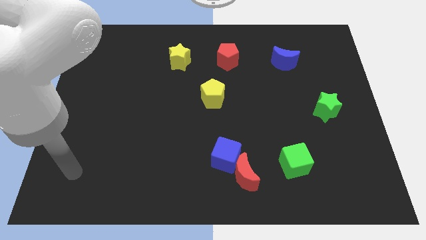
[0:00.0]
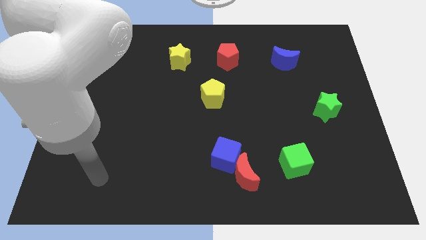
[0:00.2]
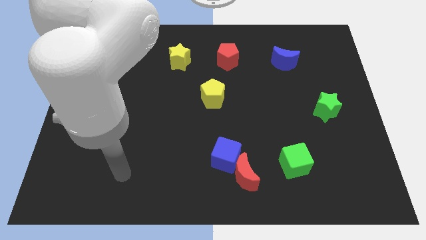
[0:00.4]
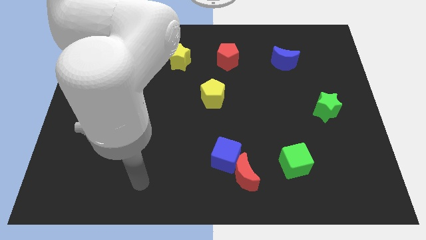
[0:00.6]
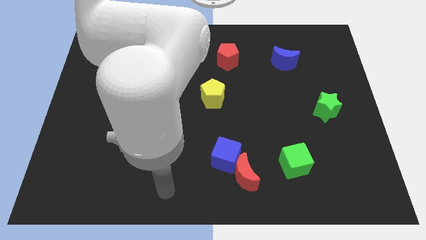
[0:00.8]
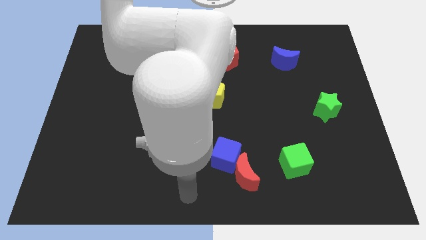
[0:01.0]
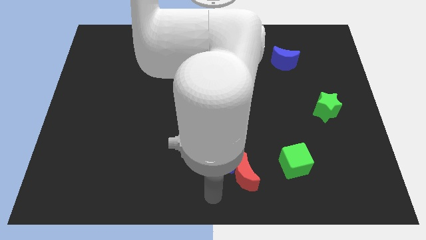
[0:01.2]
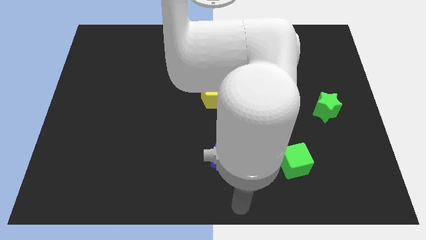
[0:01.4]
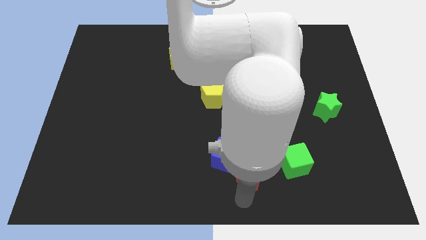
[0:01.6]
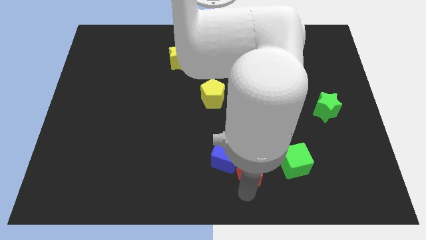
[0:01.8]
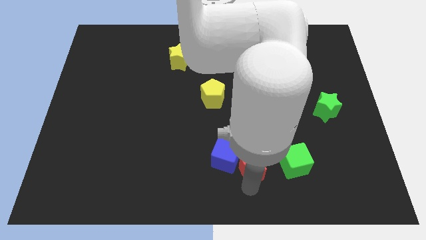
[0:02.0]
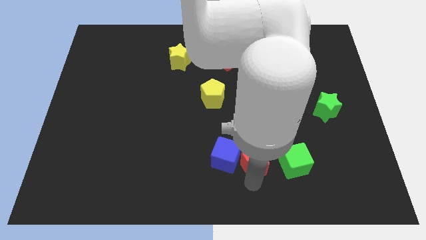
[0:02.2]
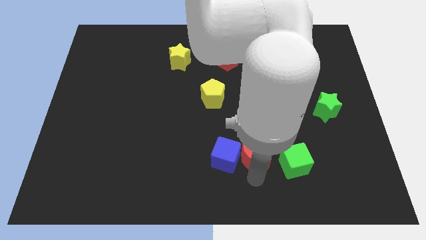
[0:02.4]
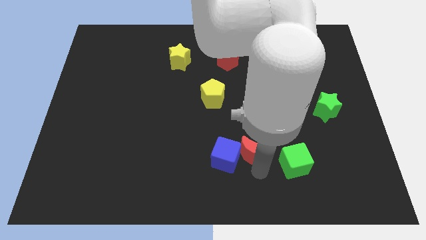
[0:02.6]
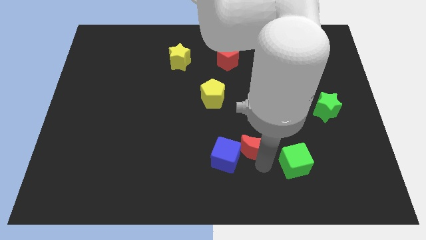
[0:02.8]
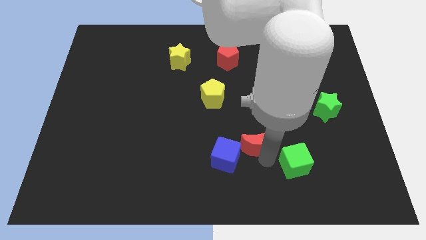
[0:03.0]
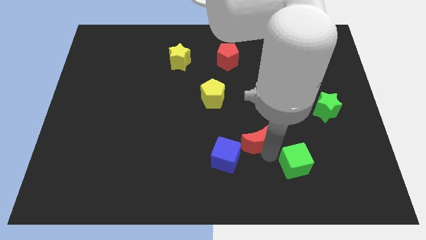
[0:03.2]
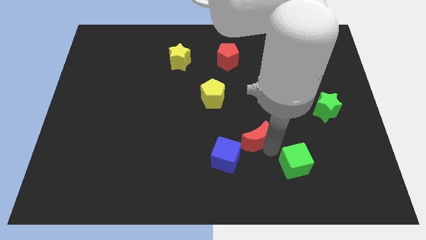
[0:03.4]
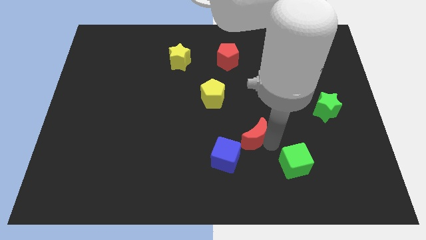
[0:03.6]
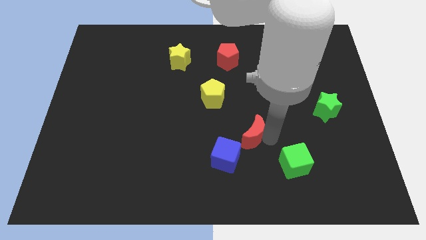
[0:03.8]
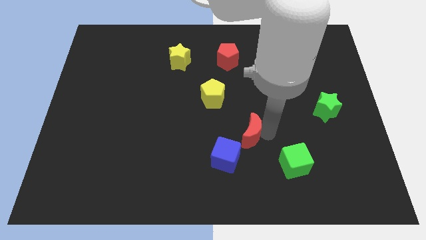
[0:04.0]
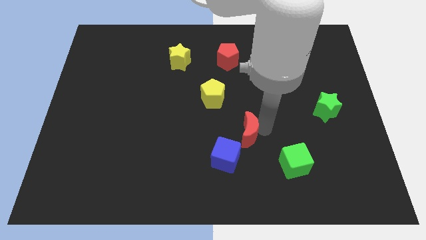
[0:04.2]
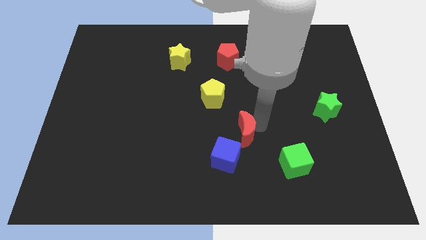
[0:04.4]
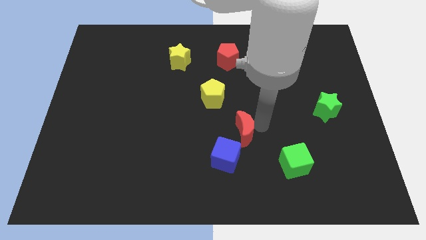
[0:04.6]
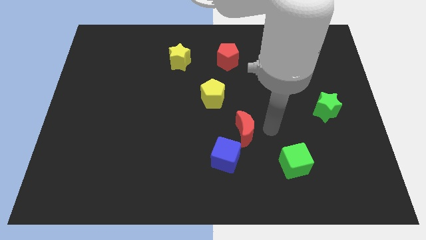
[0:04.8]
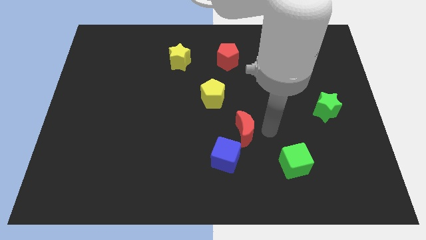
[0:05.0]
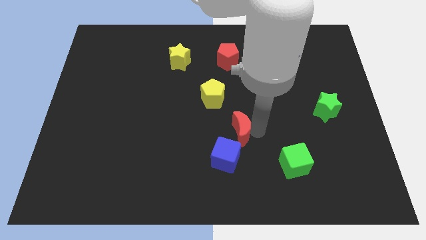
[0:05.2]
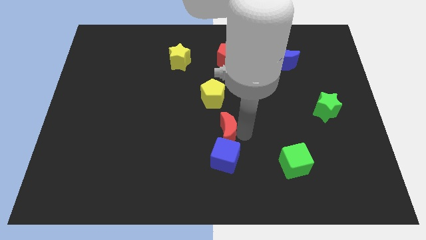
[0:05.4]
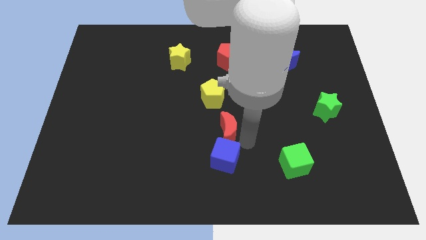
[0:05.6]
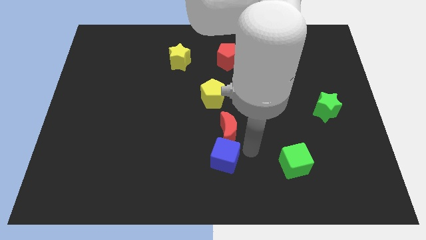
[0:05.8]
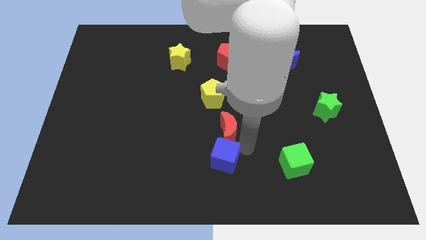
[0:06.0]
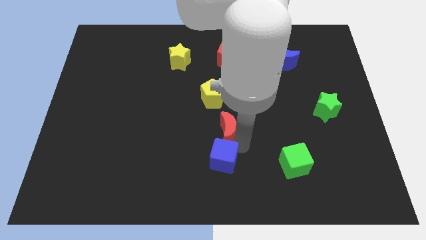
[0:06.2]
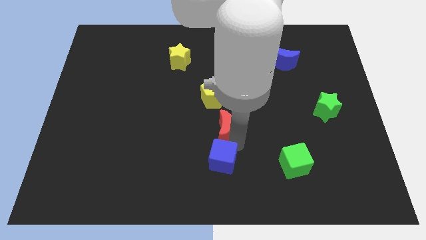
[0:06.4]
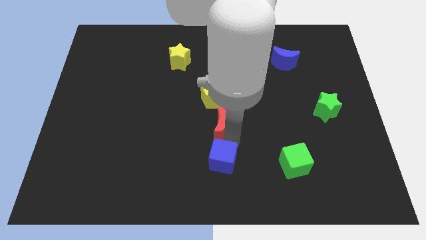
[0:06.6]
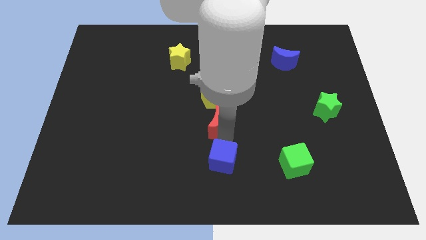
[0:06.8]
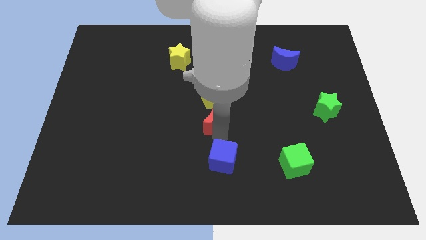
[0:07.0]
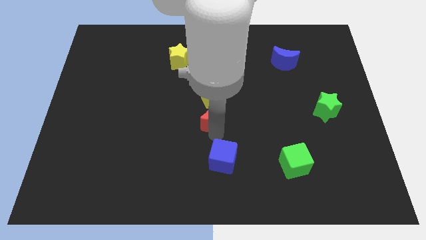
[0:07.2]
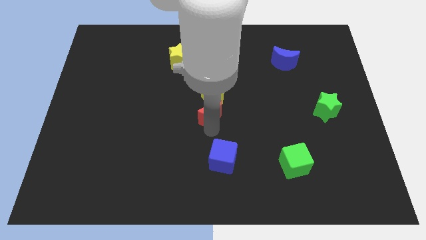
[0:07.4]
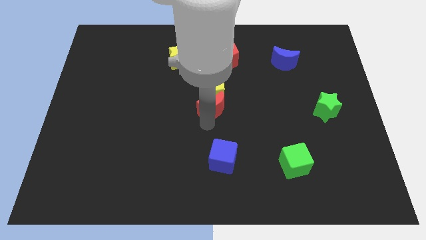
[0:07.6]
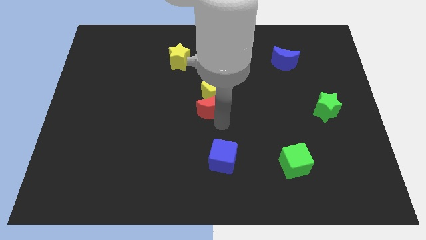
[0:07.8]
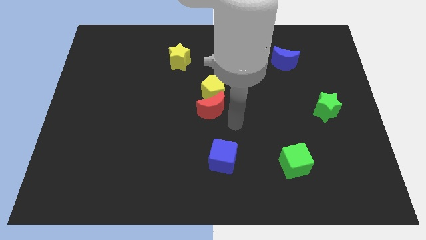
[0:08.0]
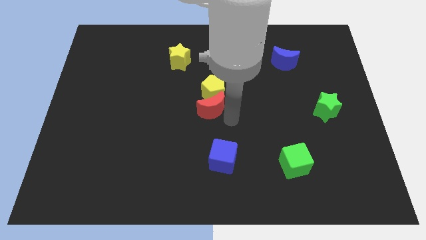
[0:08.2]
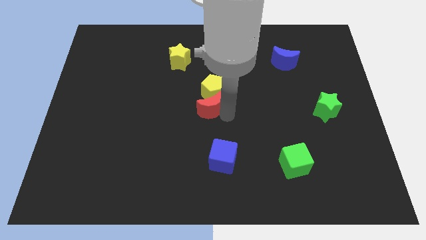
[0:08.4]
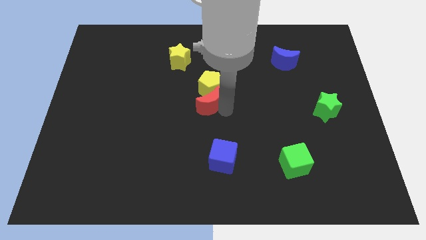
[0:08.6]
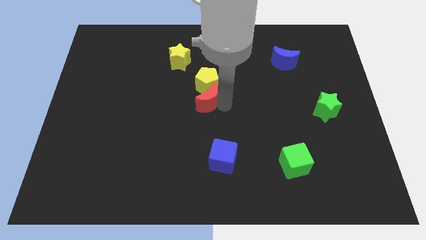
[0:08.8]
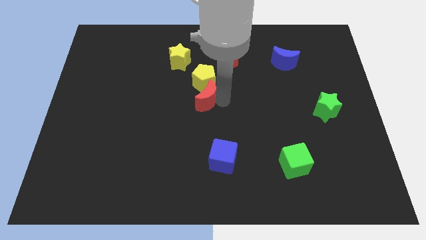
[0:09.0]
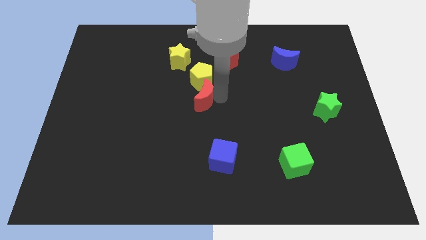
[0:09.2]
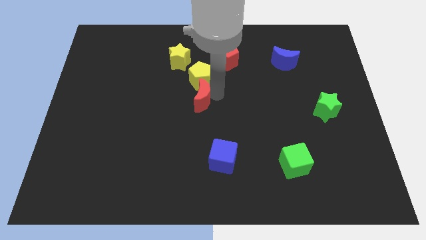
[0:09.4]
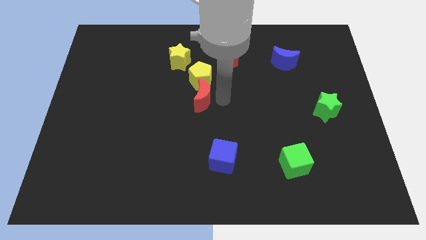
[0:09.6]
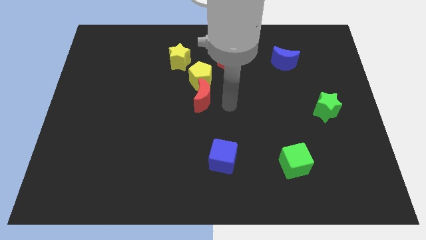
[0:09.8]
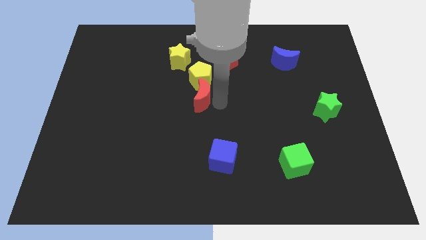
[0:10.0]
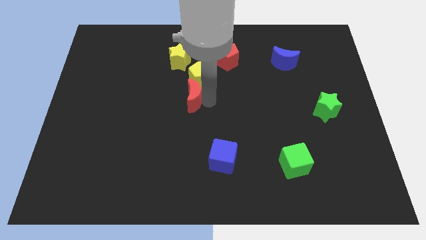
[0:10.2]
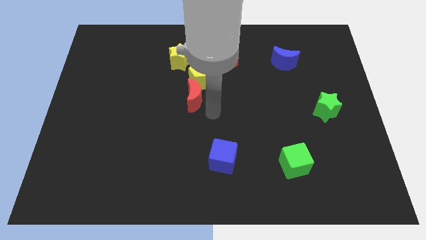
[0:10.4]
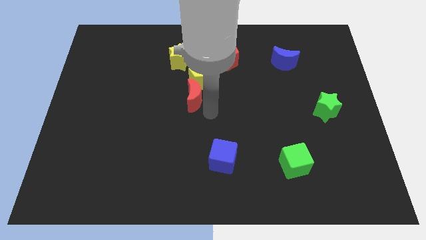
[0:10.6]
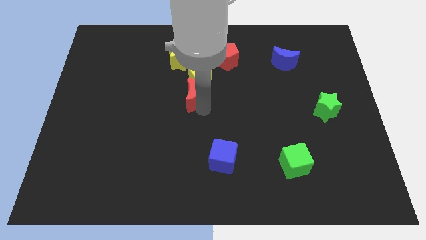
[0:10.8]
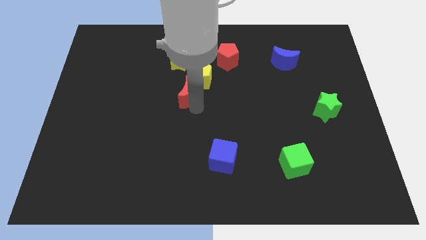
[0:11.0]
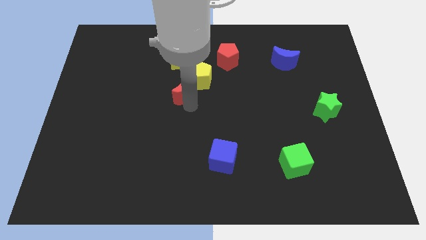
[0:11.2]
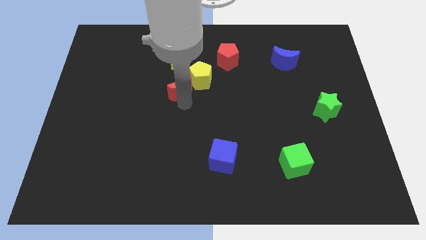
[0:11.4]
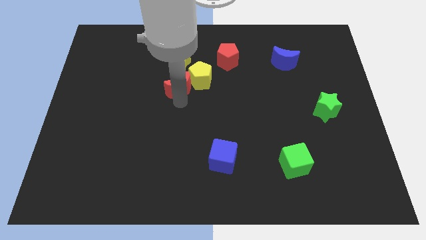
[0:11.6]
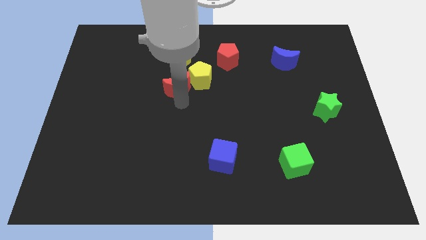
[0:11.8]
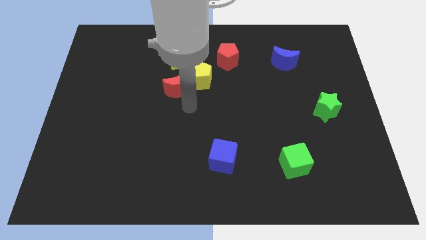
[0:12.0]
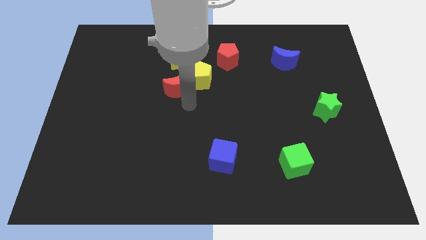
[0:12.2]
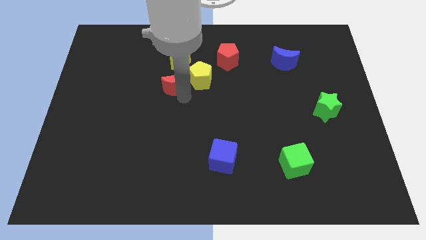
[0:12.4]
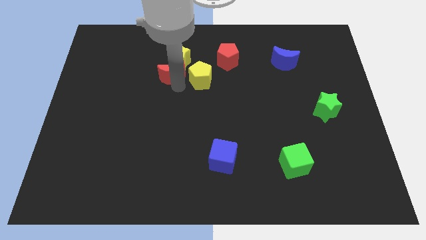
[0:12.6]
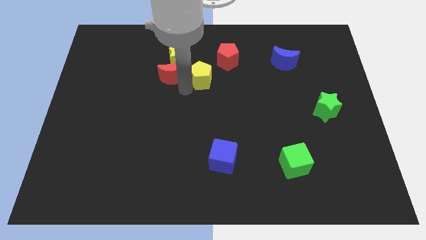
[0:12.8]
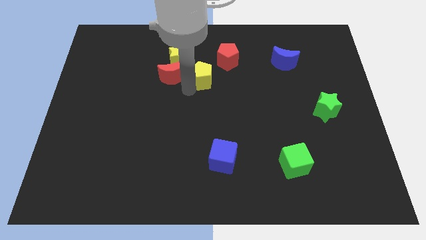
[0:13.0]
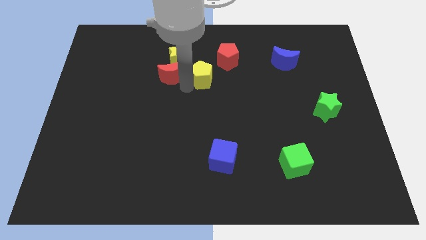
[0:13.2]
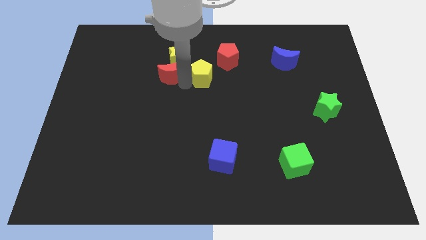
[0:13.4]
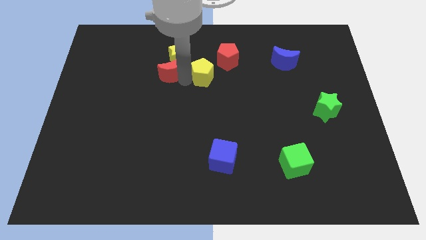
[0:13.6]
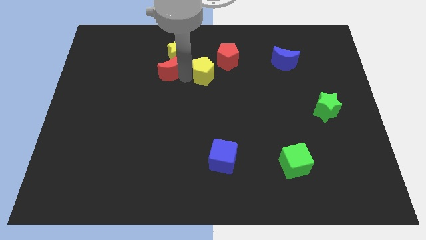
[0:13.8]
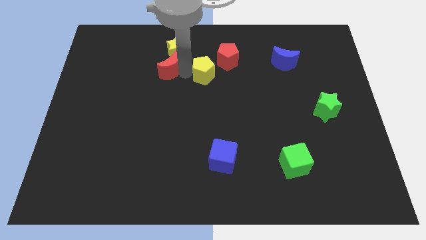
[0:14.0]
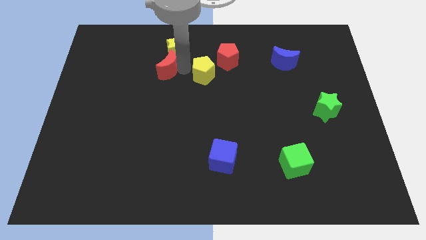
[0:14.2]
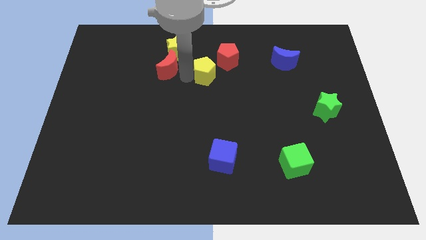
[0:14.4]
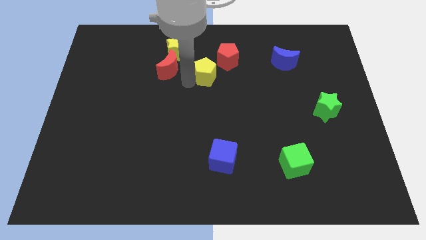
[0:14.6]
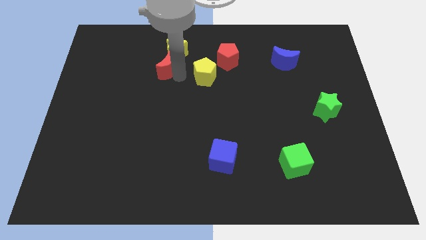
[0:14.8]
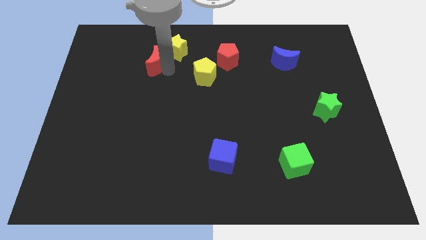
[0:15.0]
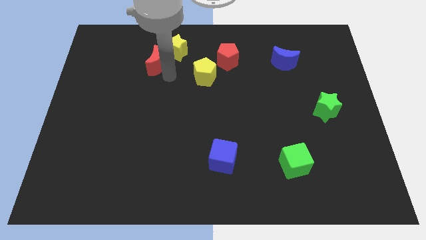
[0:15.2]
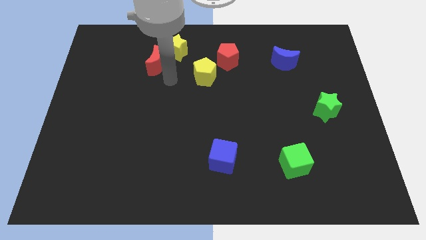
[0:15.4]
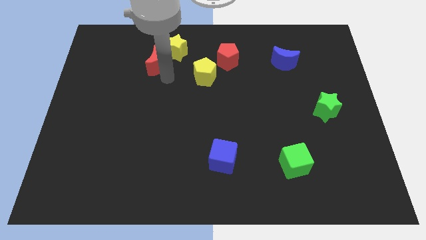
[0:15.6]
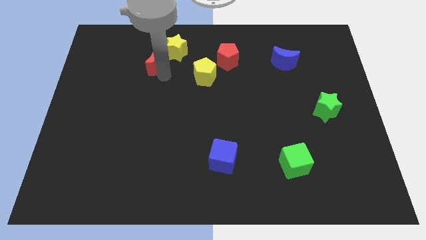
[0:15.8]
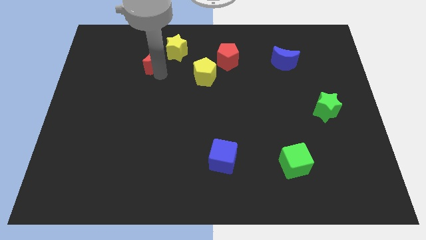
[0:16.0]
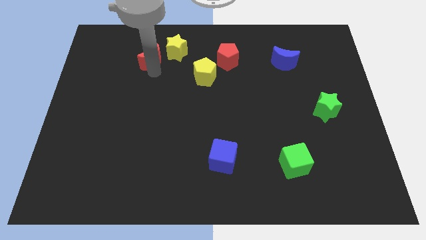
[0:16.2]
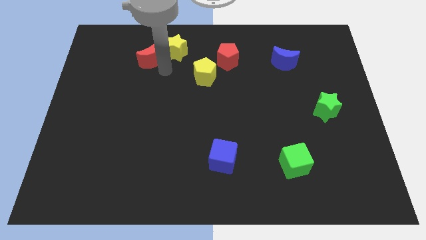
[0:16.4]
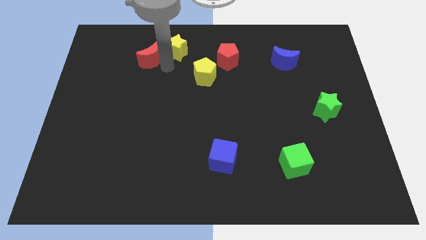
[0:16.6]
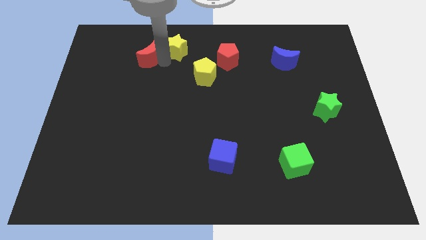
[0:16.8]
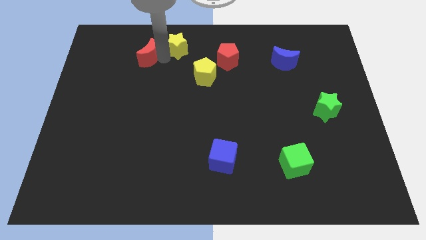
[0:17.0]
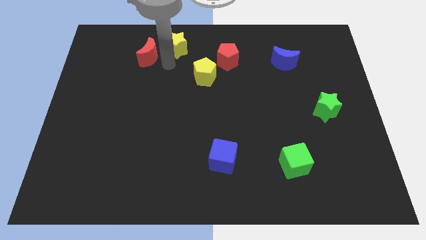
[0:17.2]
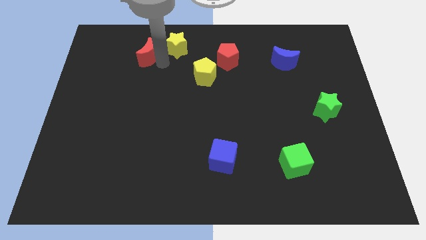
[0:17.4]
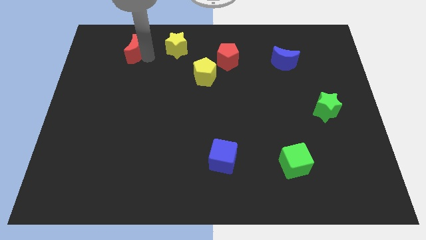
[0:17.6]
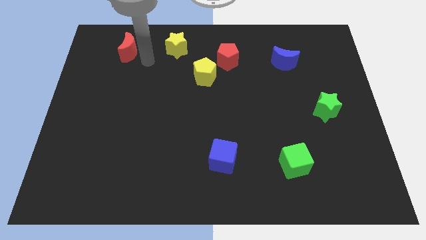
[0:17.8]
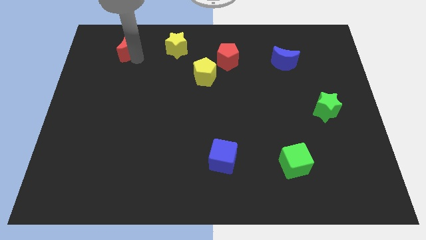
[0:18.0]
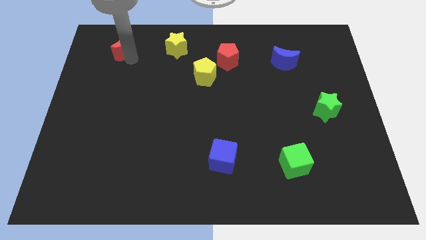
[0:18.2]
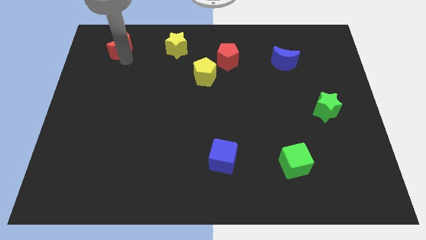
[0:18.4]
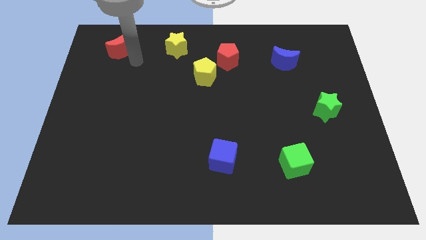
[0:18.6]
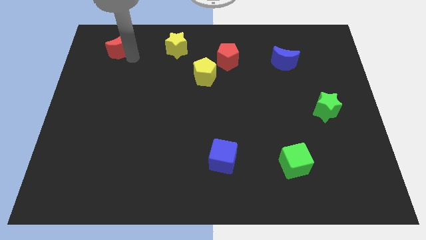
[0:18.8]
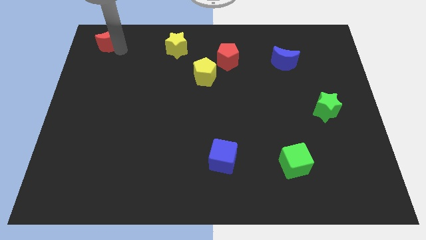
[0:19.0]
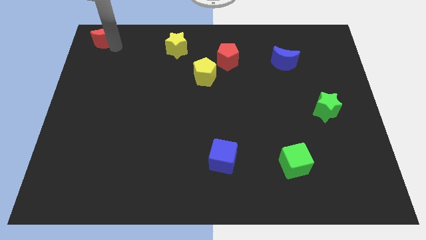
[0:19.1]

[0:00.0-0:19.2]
push the red moon to the top left corner
